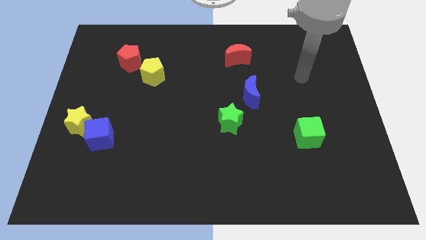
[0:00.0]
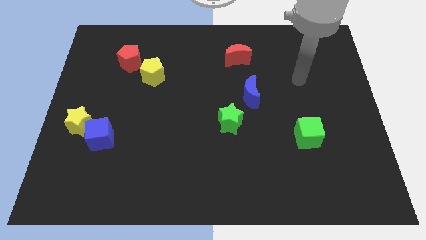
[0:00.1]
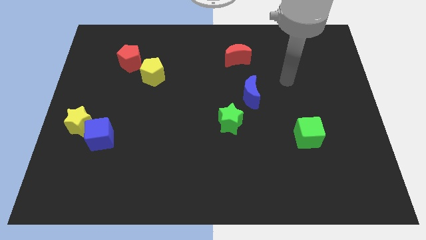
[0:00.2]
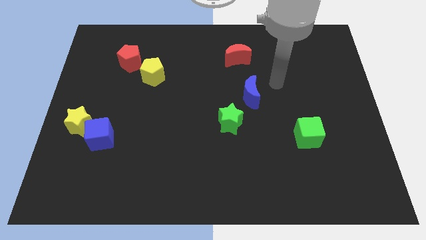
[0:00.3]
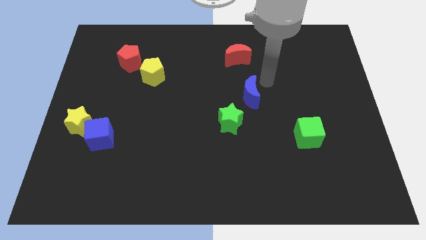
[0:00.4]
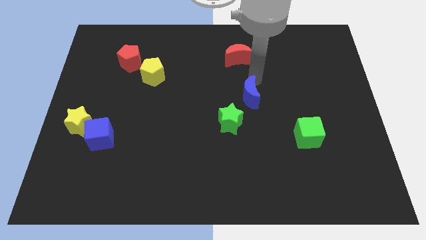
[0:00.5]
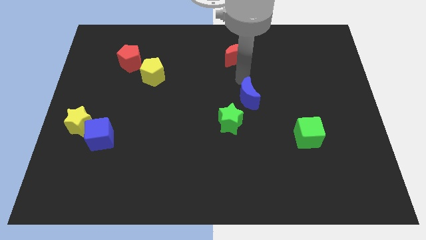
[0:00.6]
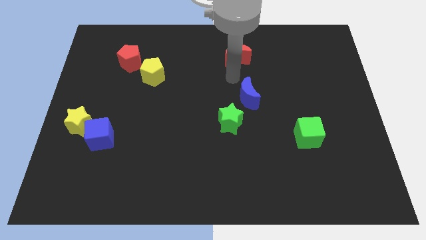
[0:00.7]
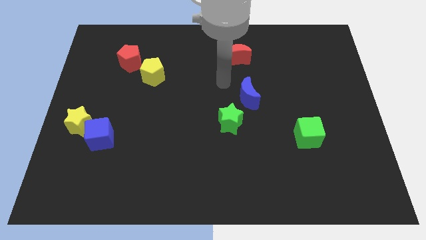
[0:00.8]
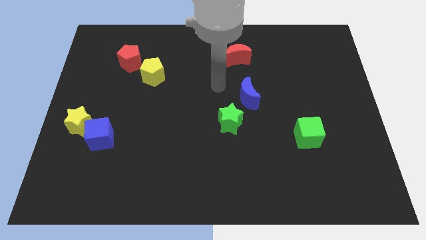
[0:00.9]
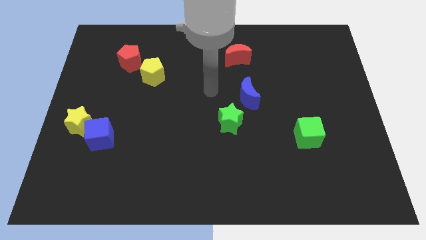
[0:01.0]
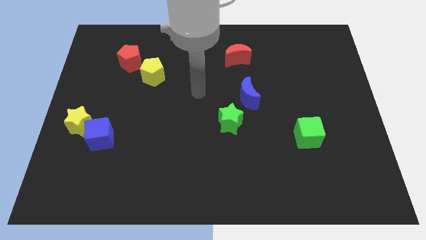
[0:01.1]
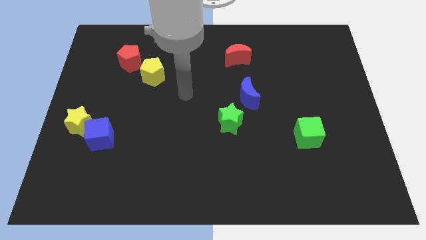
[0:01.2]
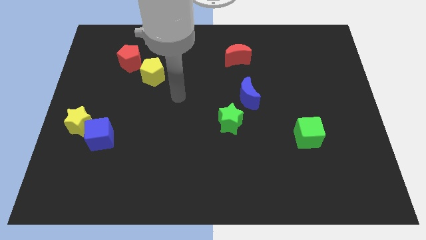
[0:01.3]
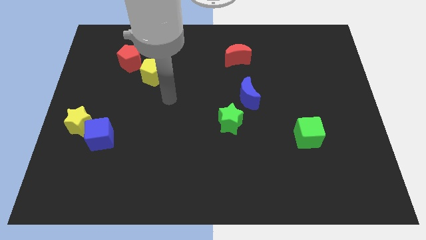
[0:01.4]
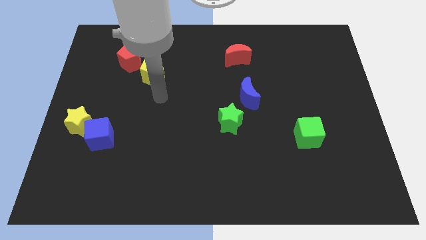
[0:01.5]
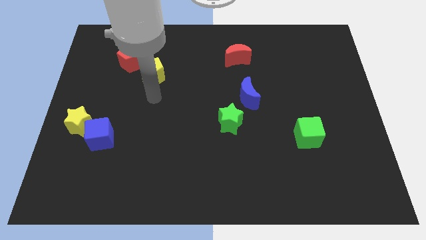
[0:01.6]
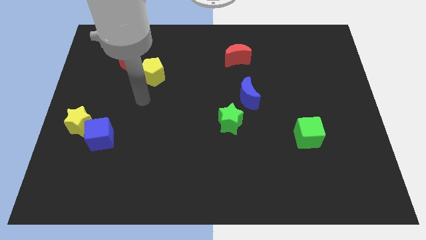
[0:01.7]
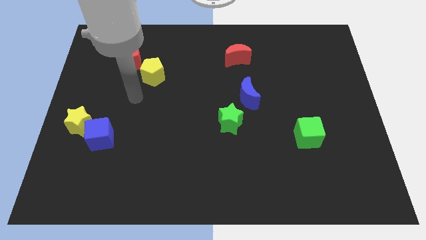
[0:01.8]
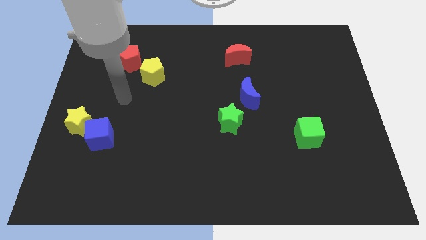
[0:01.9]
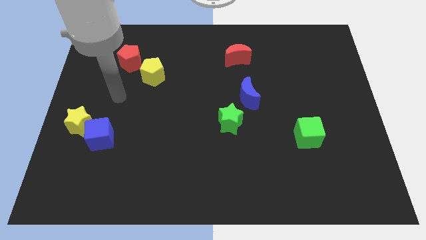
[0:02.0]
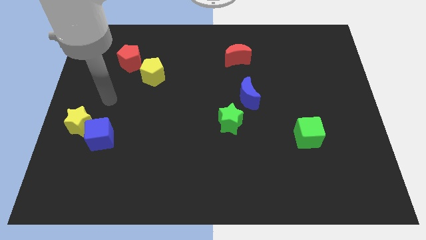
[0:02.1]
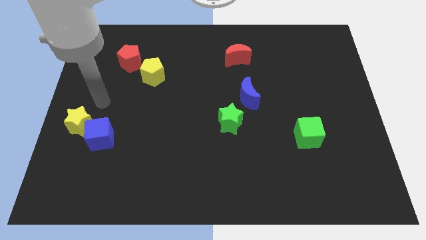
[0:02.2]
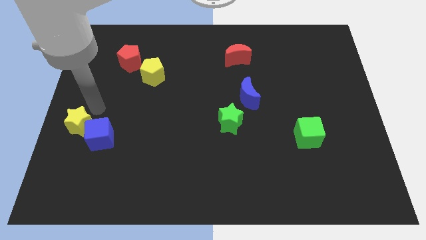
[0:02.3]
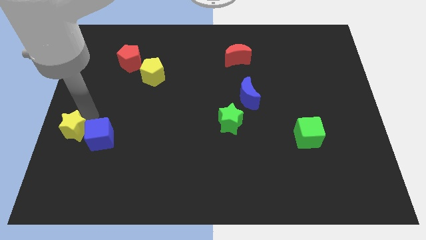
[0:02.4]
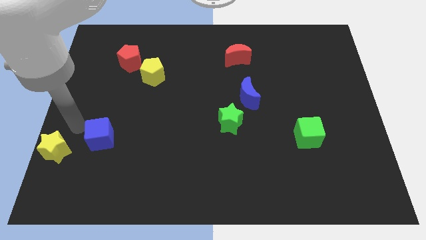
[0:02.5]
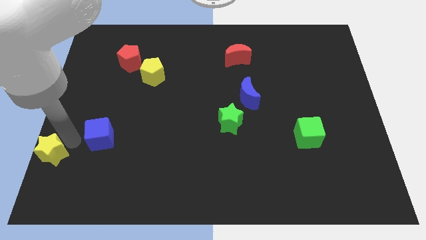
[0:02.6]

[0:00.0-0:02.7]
separate the blue cube from the yellow star

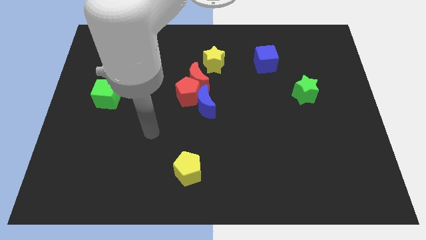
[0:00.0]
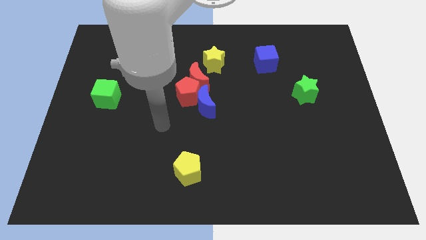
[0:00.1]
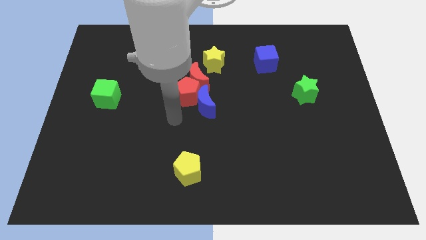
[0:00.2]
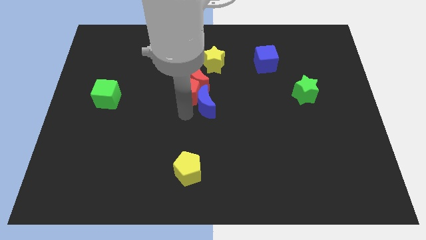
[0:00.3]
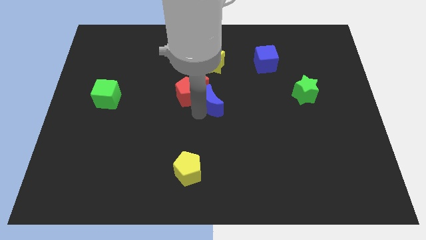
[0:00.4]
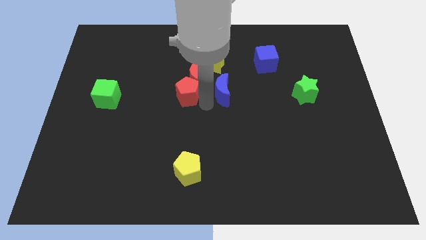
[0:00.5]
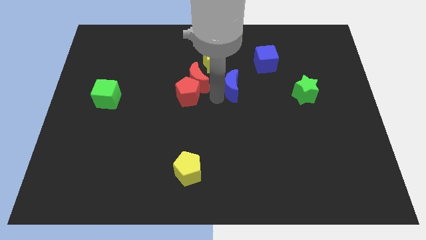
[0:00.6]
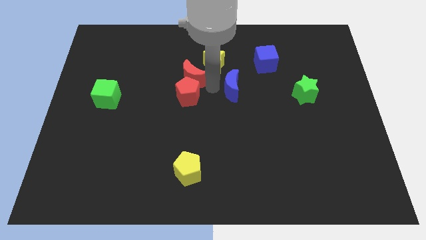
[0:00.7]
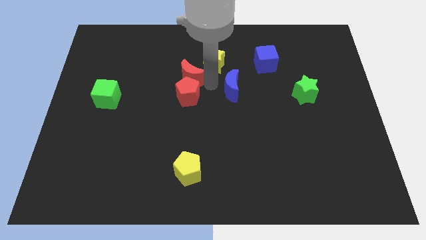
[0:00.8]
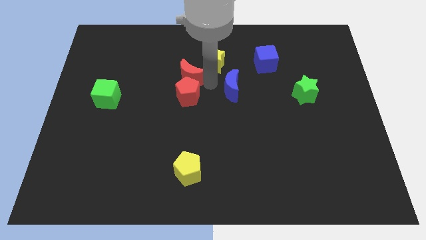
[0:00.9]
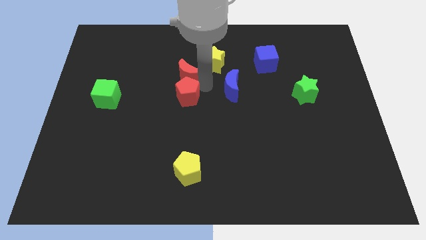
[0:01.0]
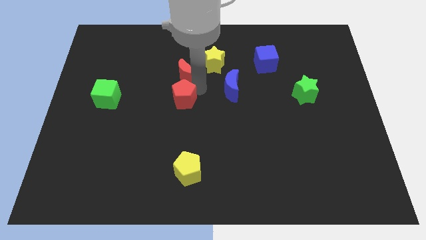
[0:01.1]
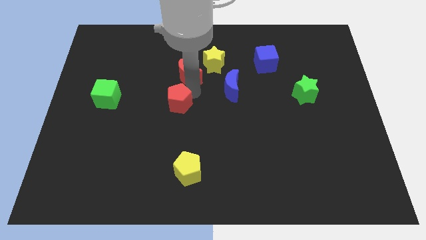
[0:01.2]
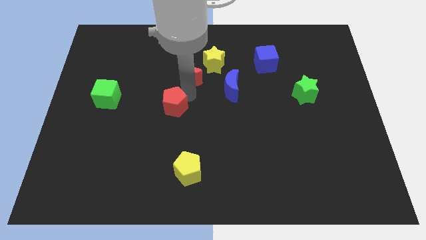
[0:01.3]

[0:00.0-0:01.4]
pull the red pentagon apart from the red moon and blue moon

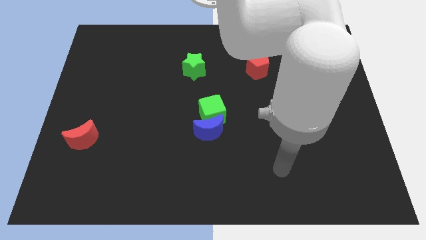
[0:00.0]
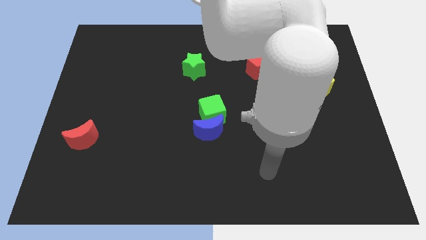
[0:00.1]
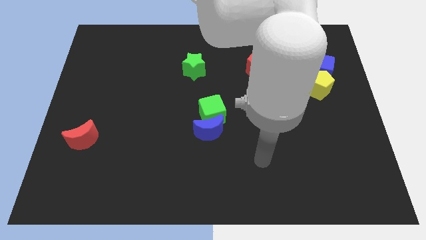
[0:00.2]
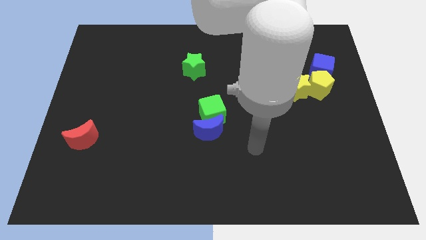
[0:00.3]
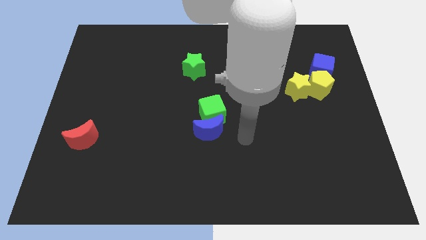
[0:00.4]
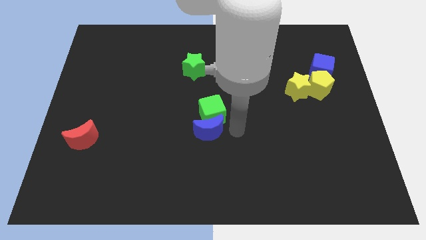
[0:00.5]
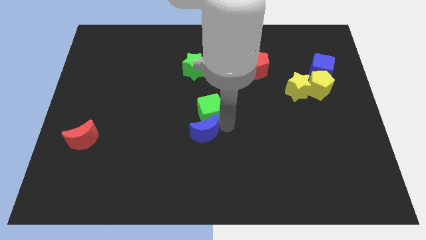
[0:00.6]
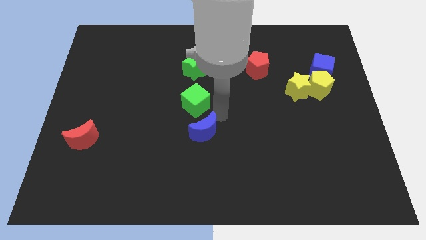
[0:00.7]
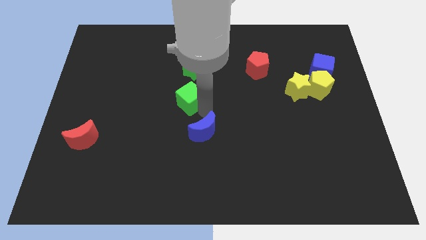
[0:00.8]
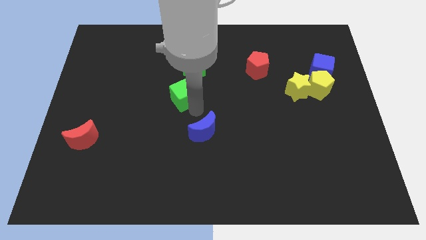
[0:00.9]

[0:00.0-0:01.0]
separate the blue moon from the green cube

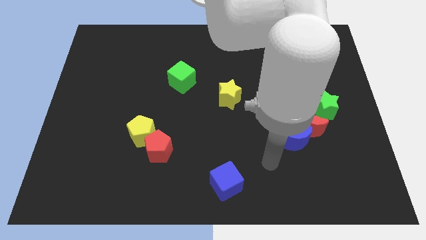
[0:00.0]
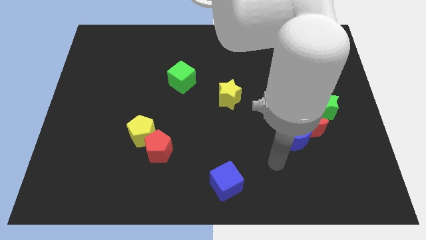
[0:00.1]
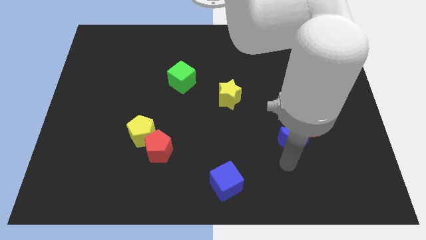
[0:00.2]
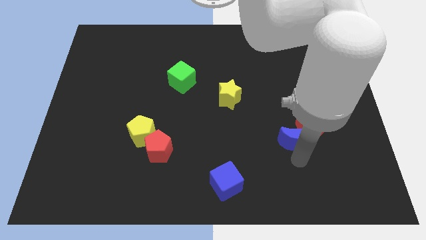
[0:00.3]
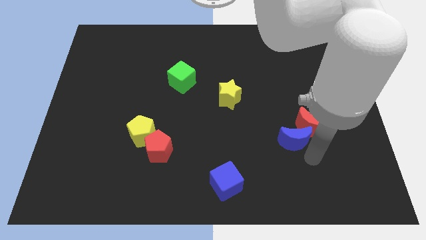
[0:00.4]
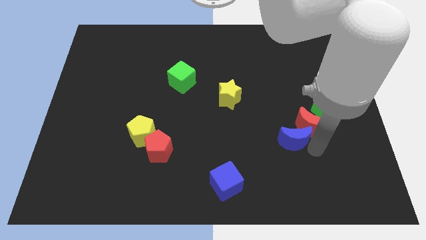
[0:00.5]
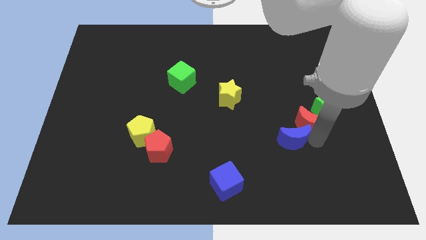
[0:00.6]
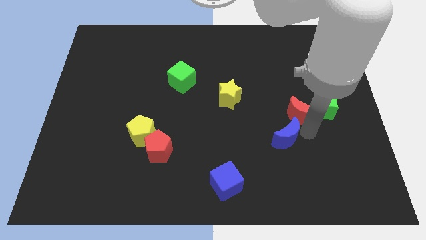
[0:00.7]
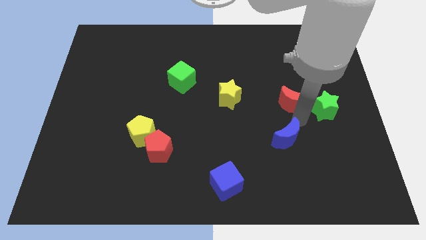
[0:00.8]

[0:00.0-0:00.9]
pull the blue moon apart from the red moon

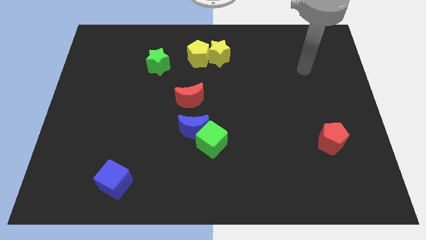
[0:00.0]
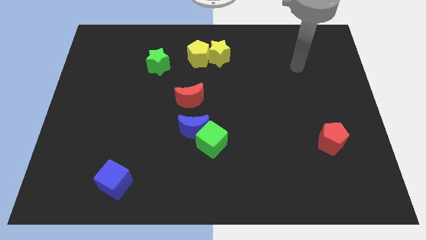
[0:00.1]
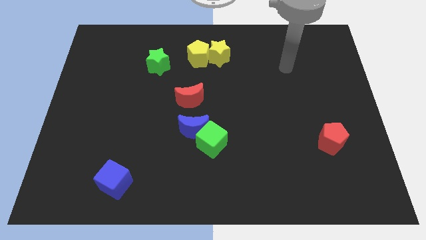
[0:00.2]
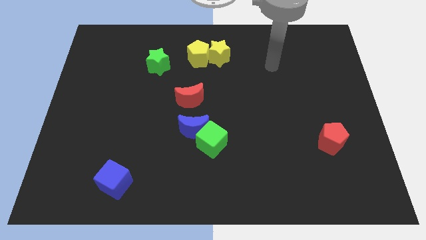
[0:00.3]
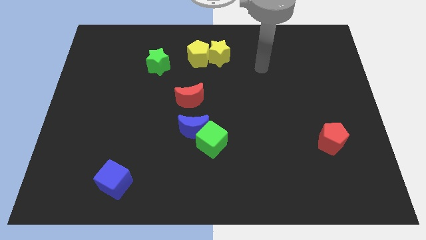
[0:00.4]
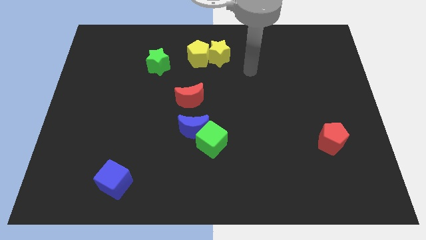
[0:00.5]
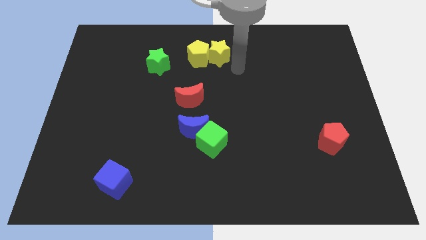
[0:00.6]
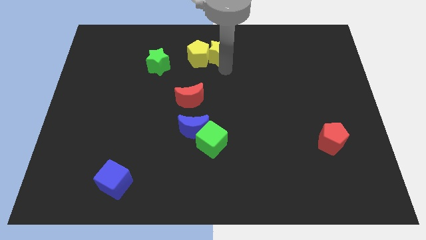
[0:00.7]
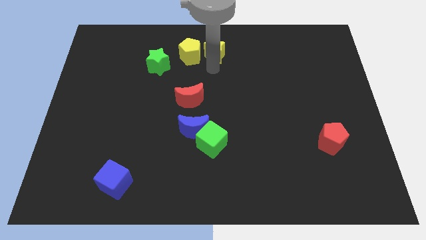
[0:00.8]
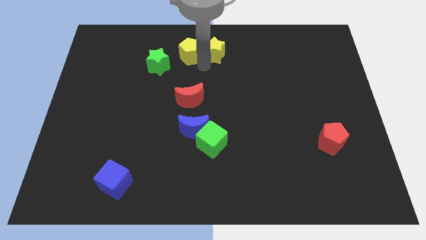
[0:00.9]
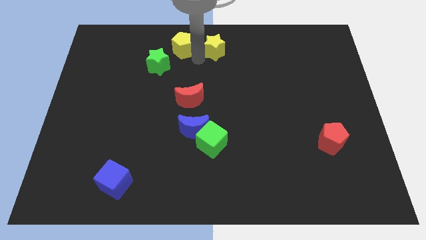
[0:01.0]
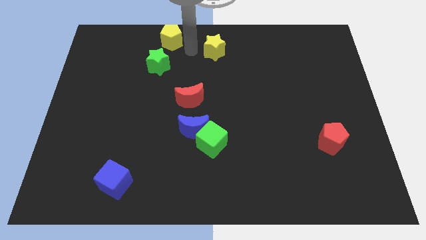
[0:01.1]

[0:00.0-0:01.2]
move the yellow star away from the yellow pentagon

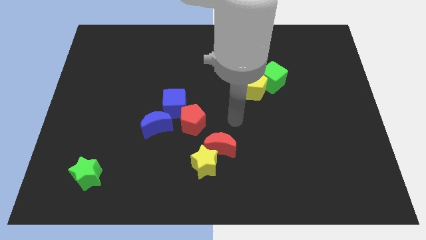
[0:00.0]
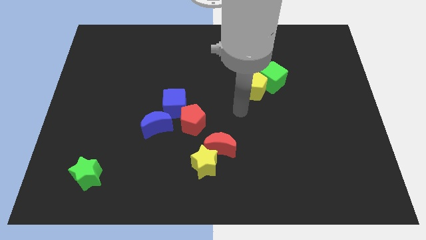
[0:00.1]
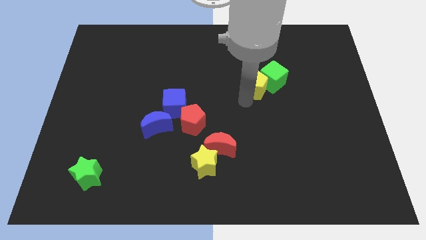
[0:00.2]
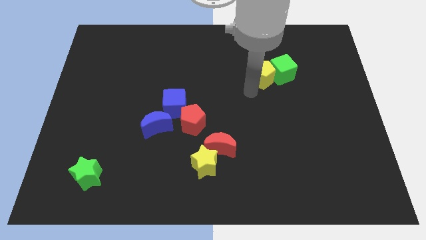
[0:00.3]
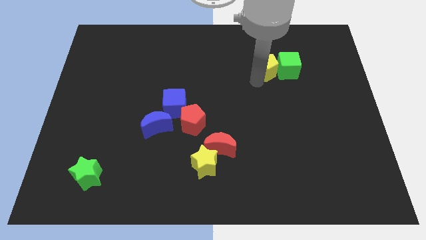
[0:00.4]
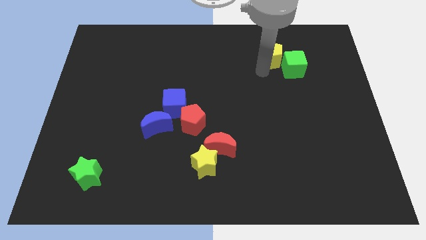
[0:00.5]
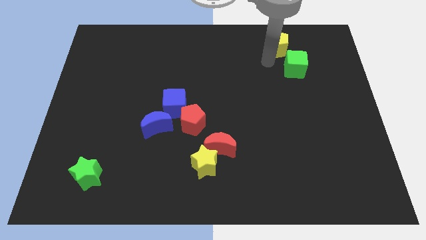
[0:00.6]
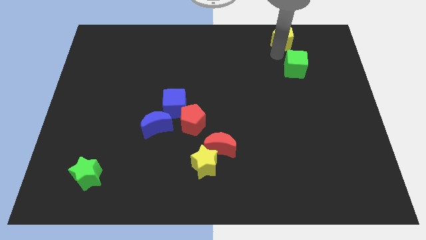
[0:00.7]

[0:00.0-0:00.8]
pull the green cube apart from the yellow pentagon

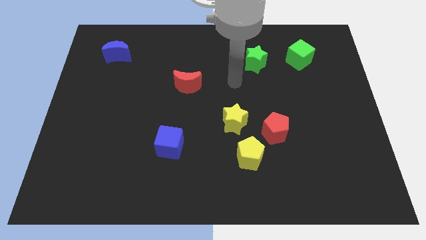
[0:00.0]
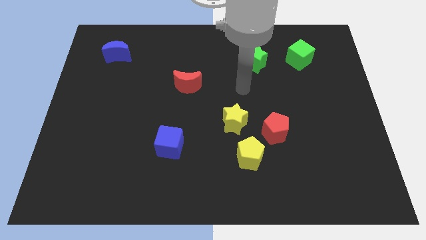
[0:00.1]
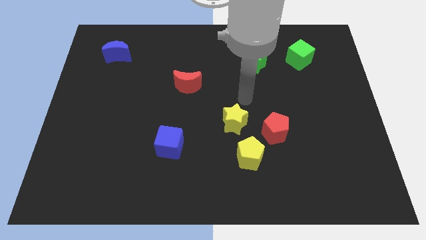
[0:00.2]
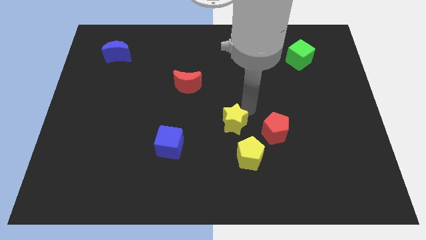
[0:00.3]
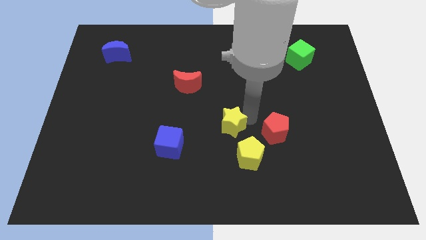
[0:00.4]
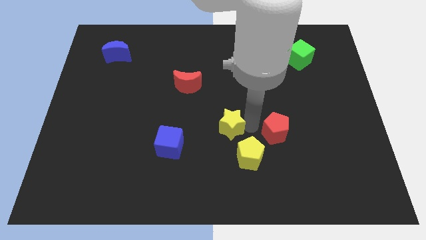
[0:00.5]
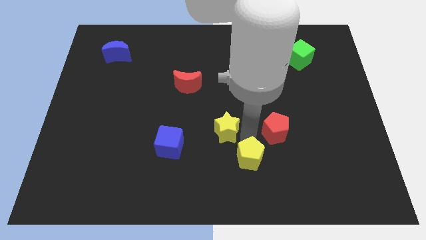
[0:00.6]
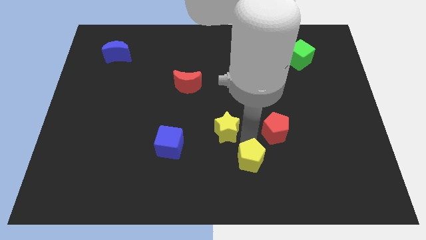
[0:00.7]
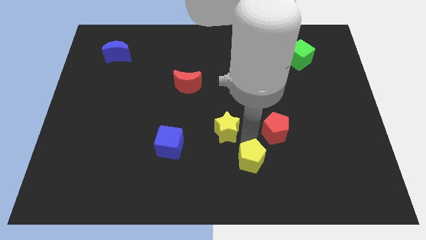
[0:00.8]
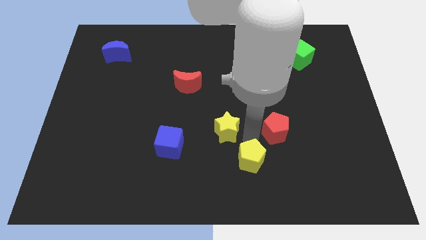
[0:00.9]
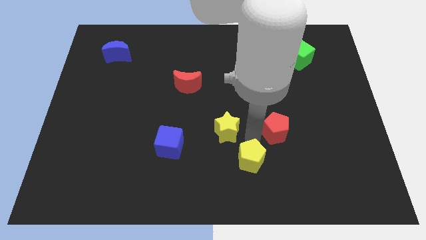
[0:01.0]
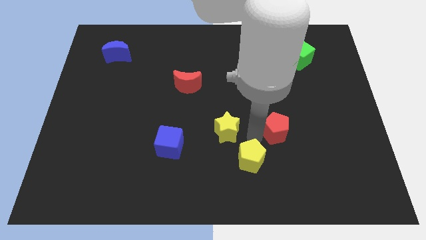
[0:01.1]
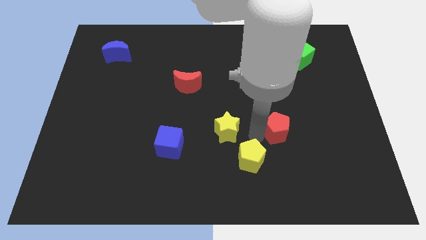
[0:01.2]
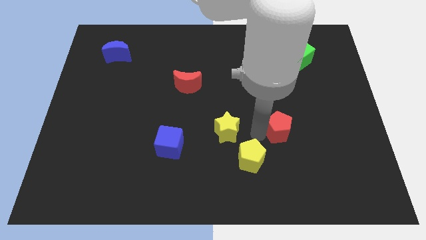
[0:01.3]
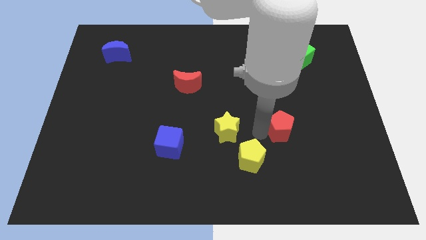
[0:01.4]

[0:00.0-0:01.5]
separate the red pentagon from the yellow pentagon and yellow star
